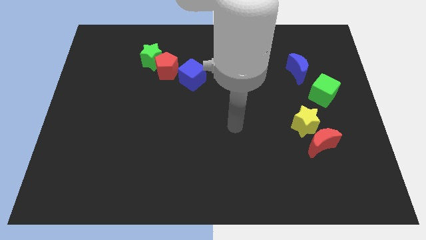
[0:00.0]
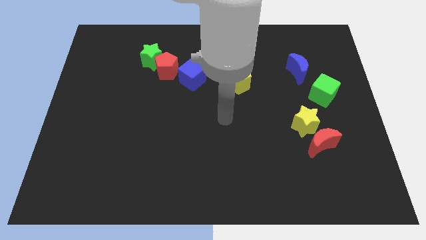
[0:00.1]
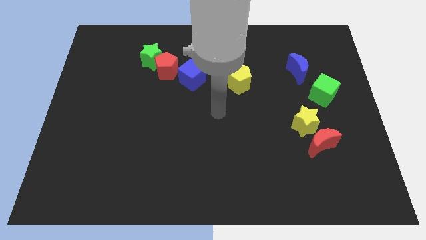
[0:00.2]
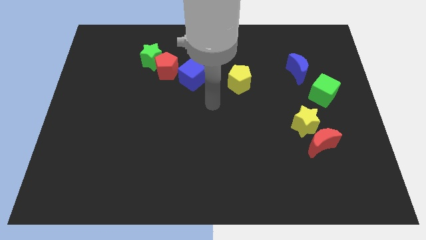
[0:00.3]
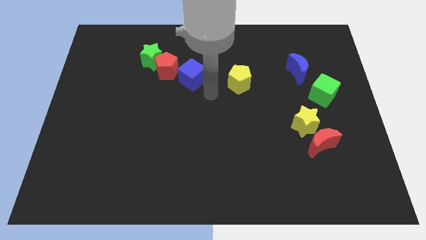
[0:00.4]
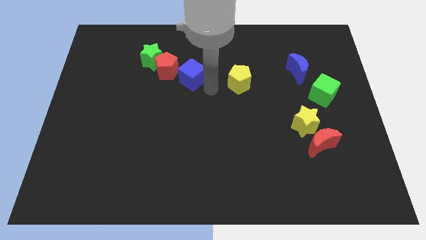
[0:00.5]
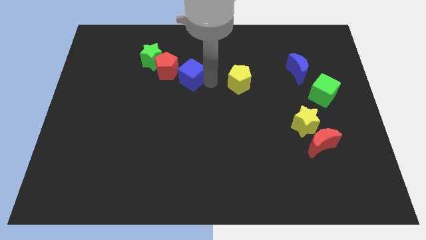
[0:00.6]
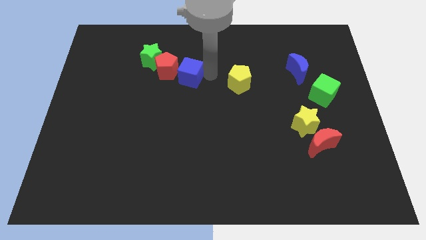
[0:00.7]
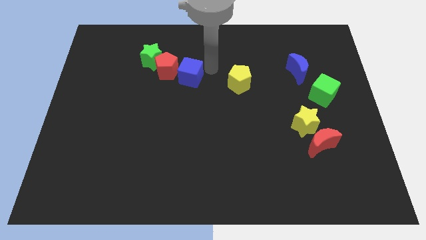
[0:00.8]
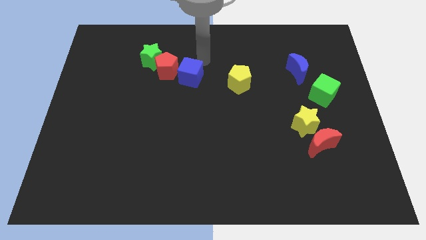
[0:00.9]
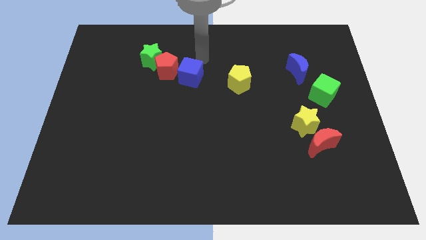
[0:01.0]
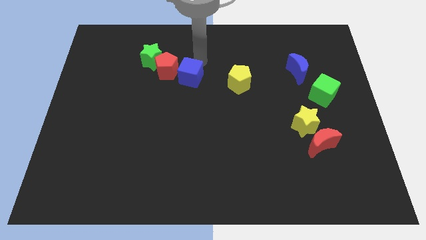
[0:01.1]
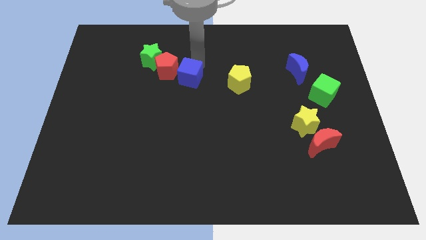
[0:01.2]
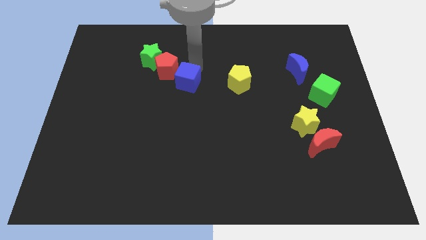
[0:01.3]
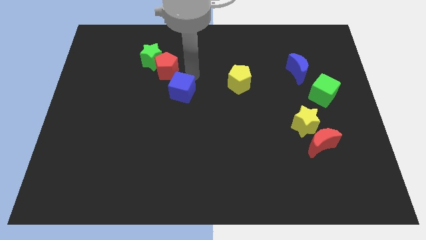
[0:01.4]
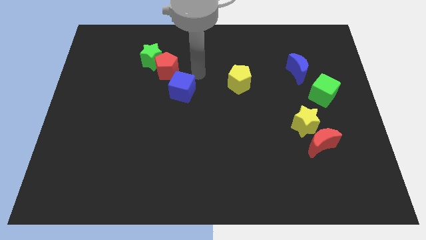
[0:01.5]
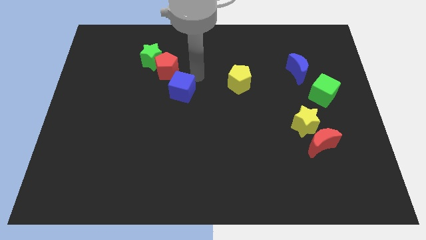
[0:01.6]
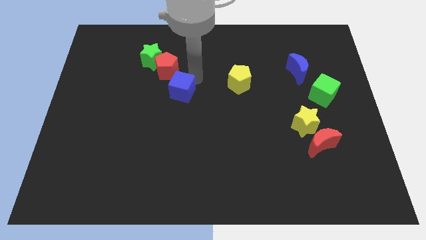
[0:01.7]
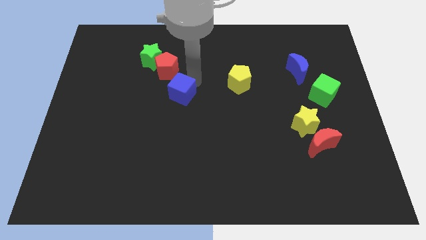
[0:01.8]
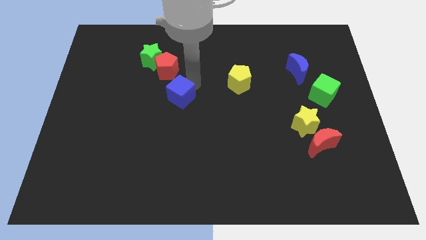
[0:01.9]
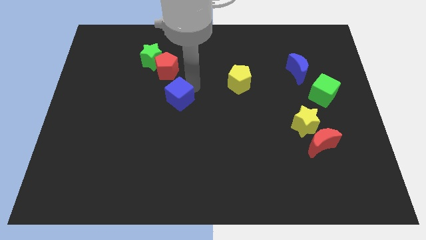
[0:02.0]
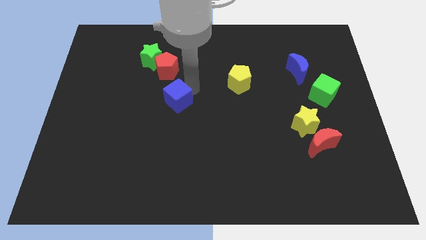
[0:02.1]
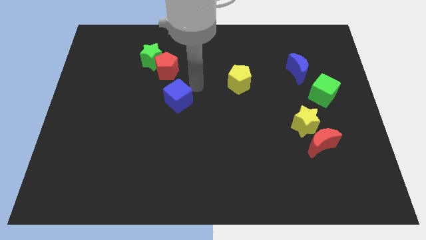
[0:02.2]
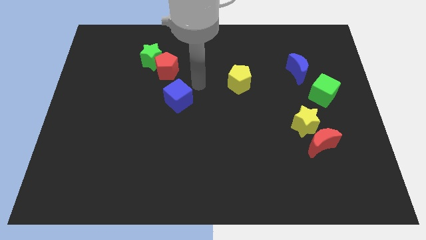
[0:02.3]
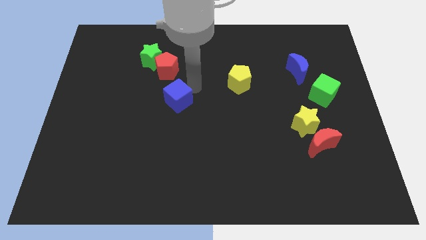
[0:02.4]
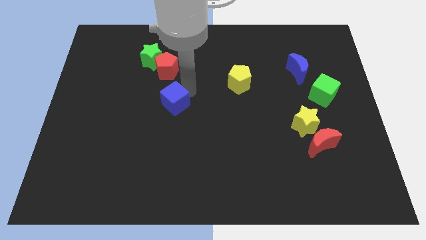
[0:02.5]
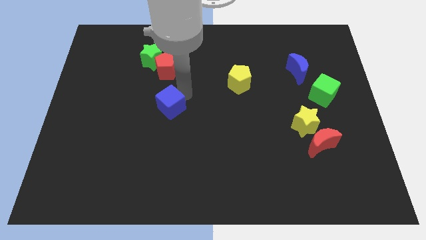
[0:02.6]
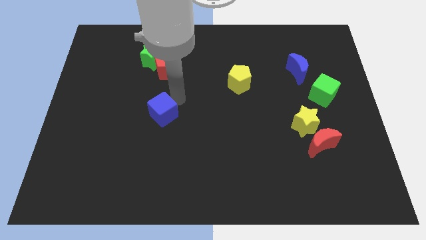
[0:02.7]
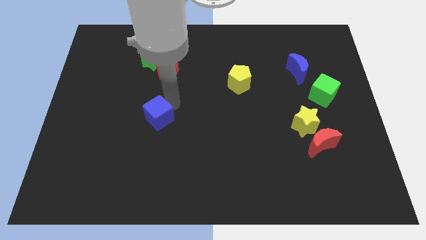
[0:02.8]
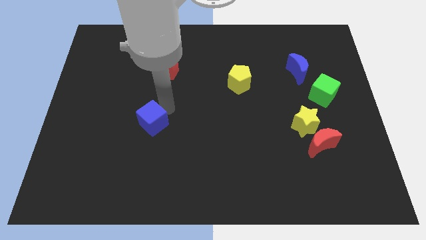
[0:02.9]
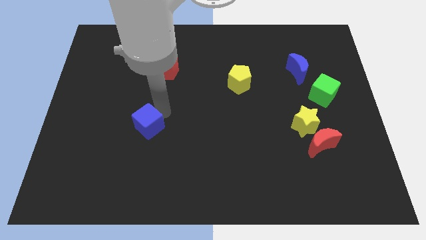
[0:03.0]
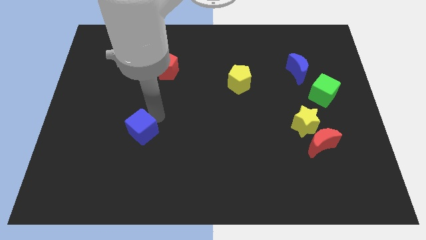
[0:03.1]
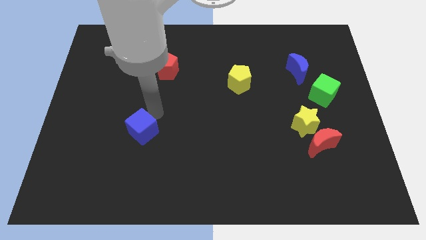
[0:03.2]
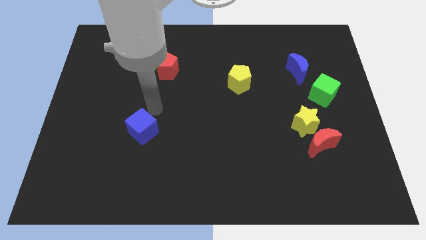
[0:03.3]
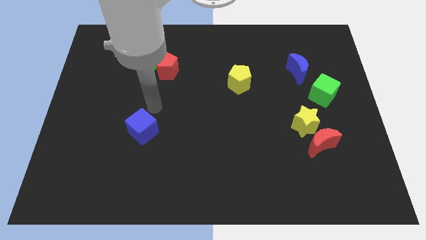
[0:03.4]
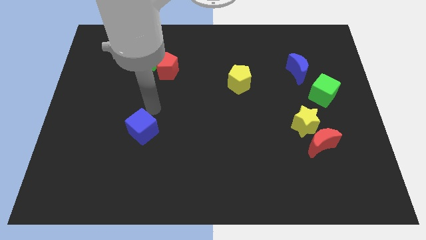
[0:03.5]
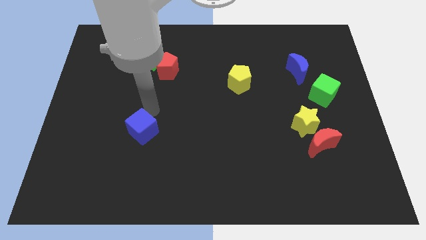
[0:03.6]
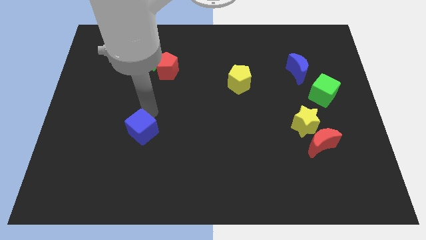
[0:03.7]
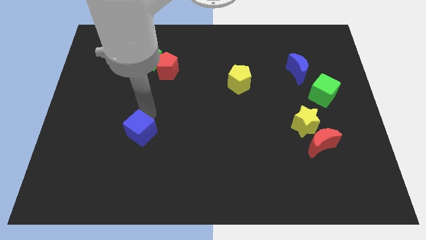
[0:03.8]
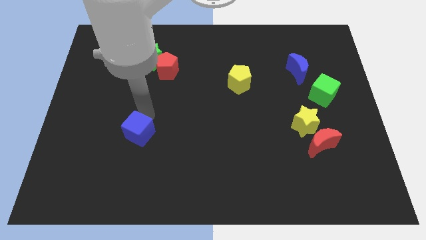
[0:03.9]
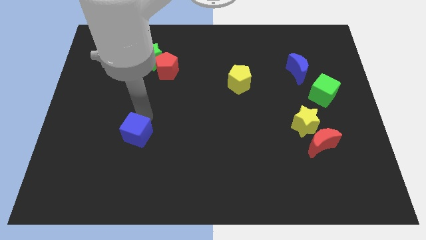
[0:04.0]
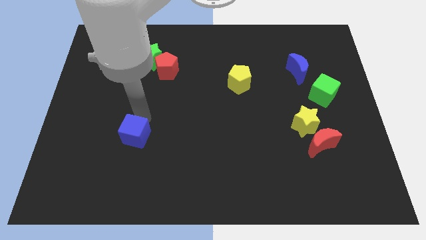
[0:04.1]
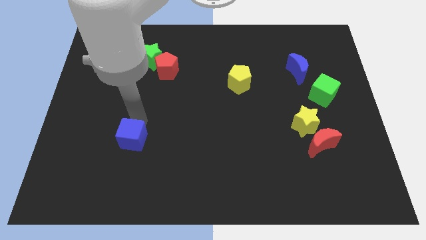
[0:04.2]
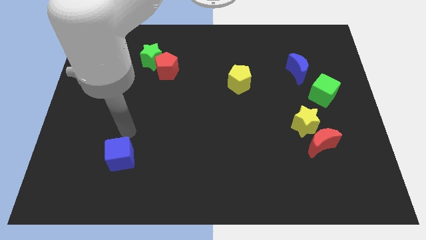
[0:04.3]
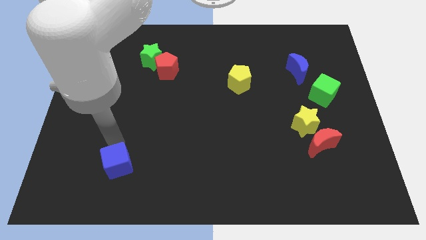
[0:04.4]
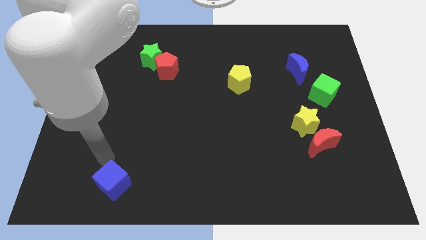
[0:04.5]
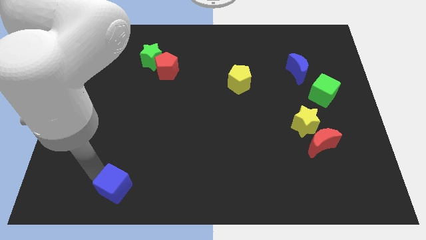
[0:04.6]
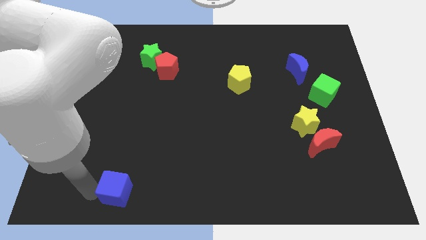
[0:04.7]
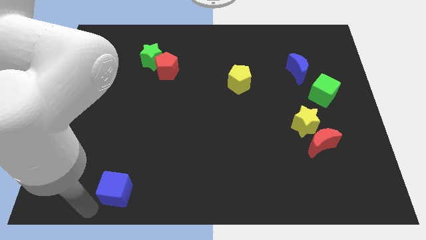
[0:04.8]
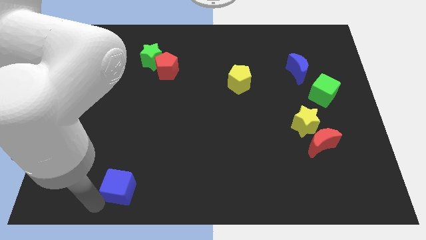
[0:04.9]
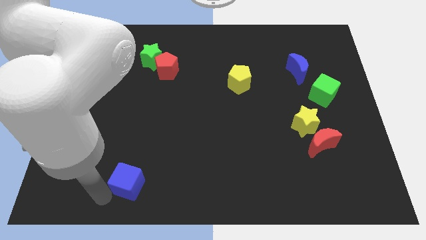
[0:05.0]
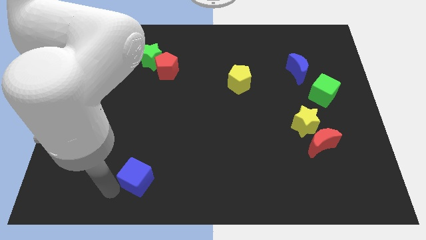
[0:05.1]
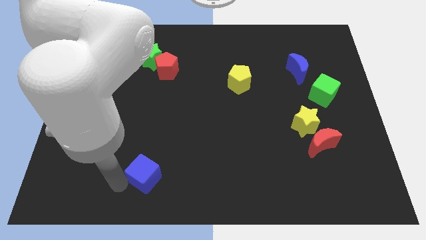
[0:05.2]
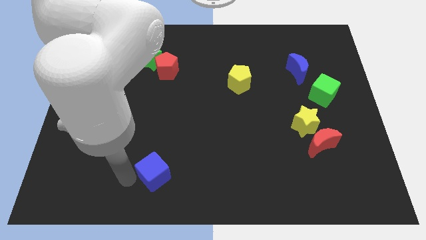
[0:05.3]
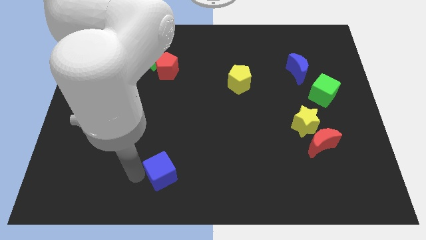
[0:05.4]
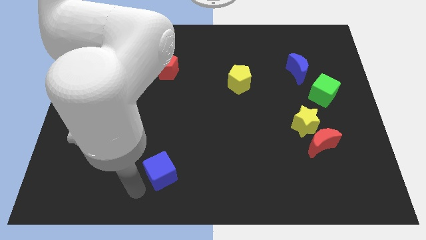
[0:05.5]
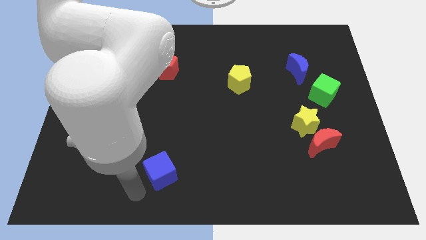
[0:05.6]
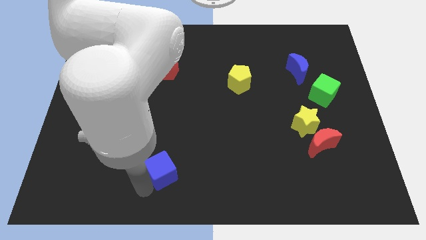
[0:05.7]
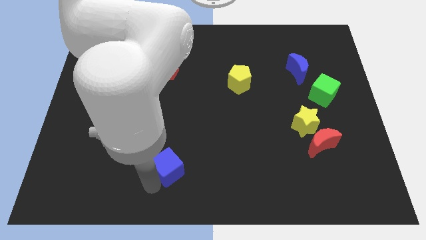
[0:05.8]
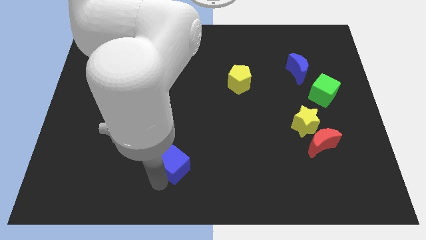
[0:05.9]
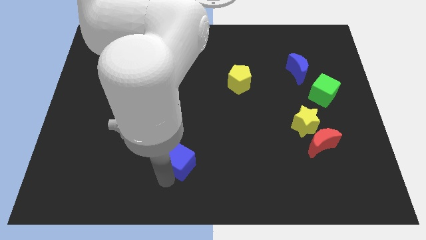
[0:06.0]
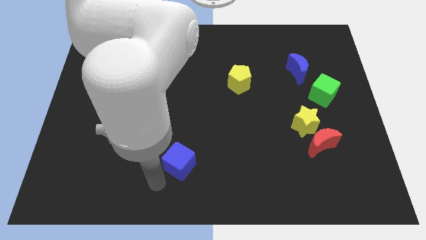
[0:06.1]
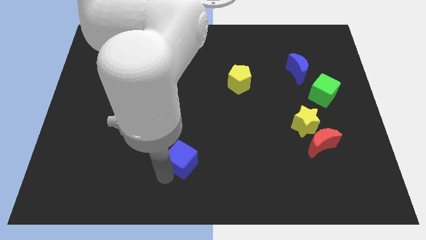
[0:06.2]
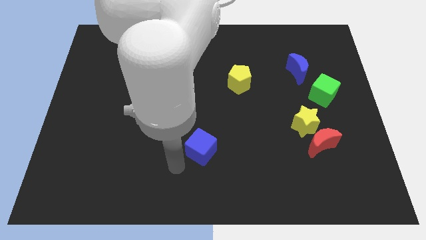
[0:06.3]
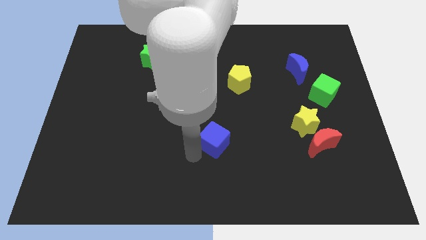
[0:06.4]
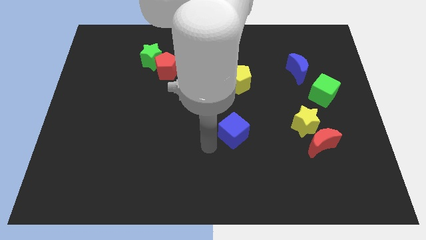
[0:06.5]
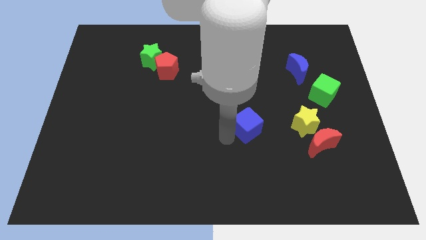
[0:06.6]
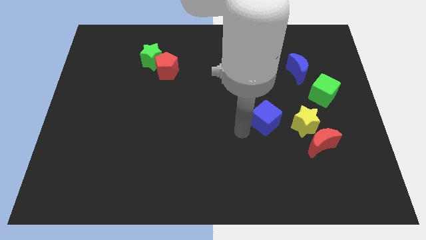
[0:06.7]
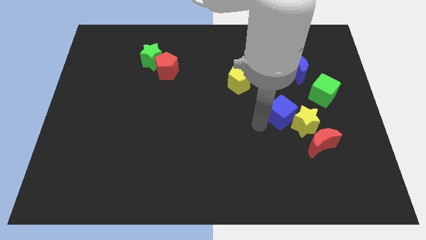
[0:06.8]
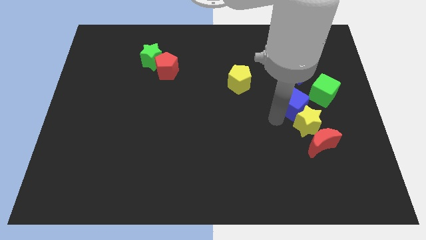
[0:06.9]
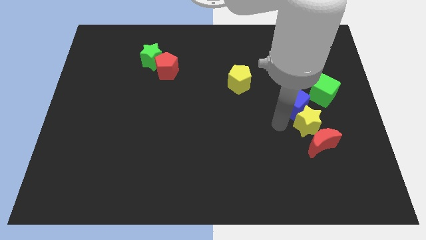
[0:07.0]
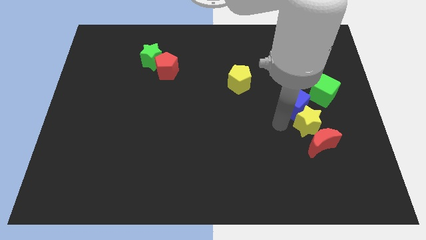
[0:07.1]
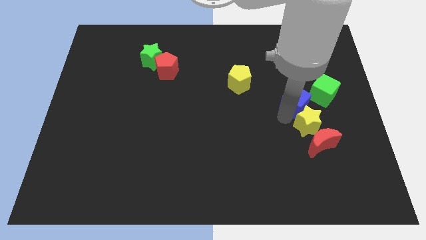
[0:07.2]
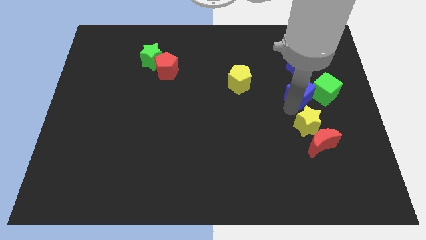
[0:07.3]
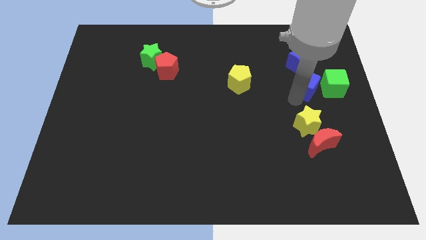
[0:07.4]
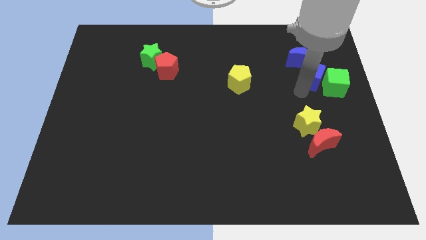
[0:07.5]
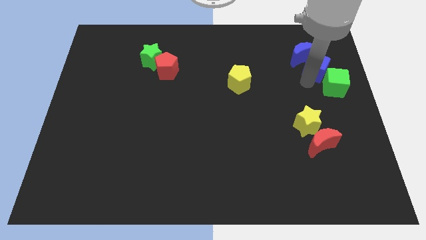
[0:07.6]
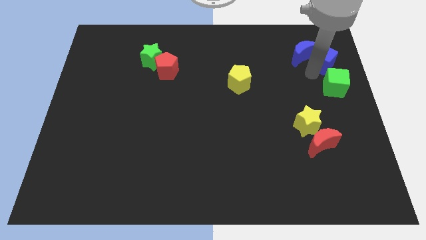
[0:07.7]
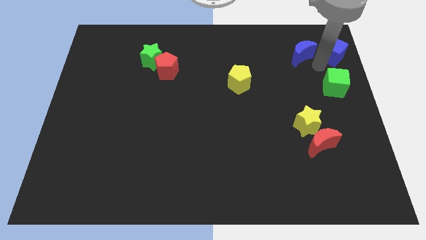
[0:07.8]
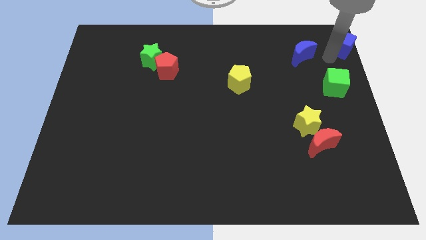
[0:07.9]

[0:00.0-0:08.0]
put the blue cube to the top right of the board
